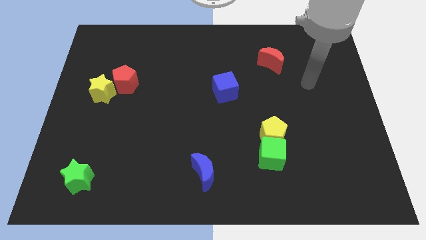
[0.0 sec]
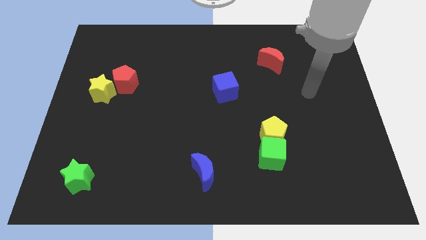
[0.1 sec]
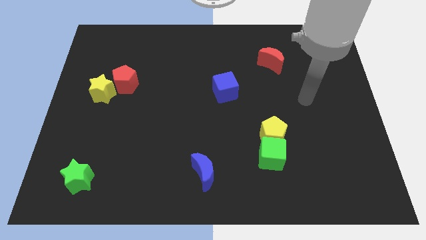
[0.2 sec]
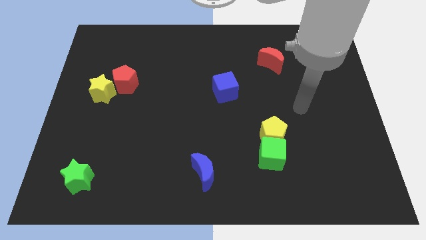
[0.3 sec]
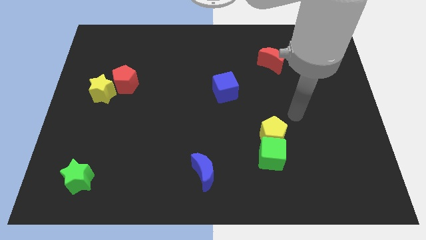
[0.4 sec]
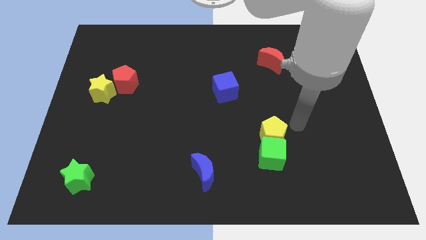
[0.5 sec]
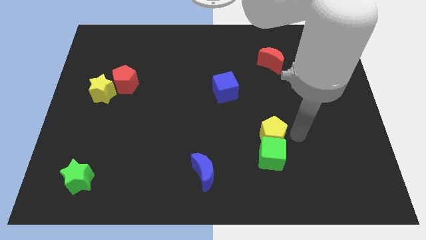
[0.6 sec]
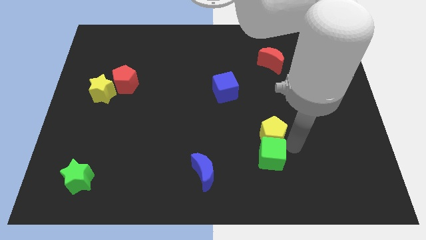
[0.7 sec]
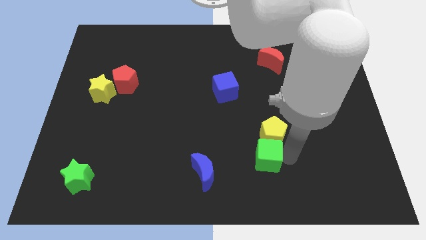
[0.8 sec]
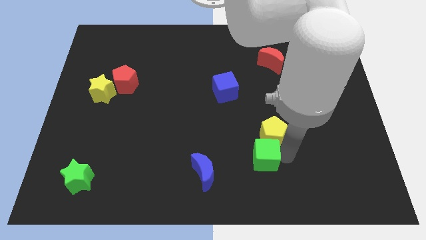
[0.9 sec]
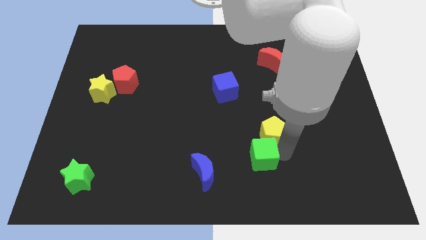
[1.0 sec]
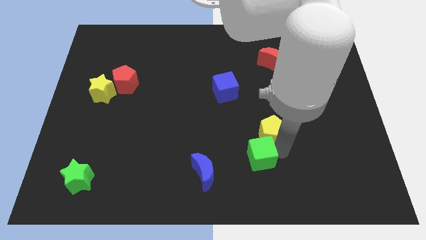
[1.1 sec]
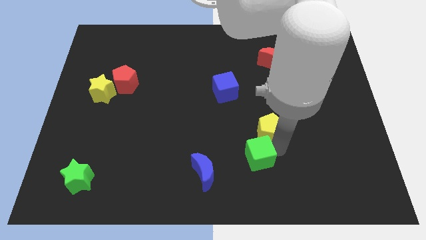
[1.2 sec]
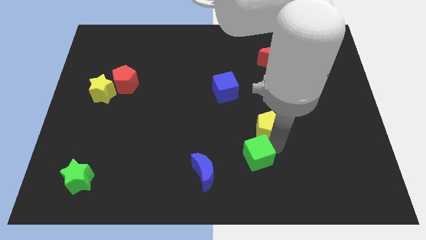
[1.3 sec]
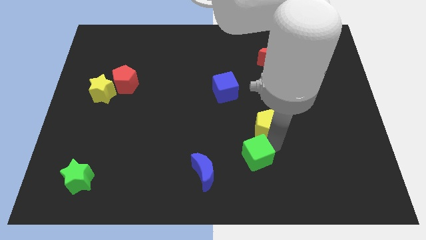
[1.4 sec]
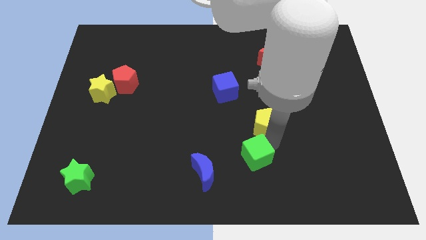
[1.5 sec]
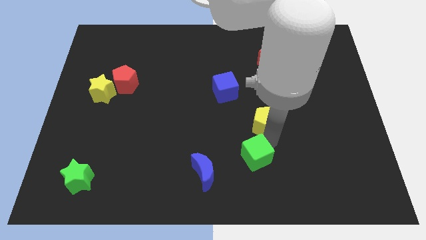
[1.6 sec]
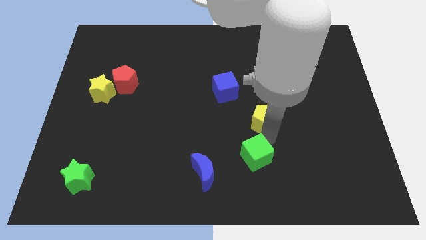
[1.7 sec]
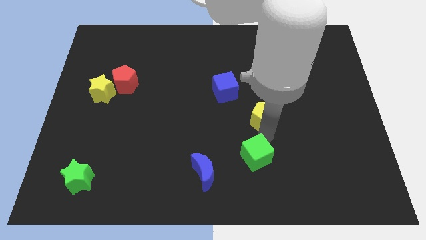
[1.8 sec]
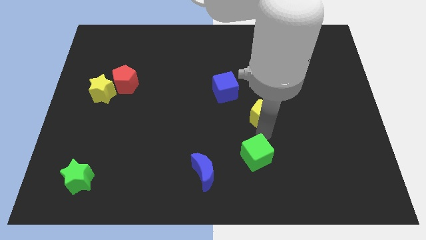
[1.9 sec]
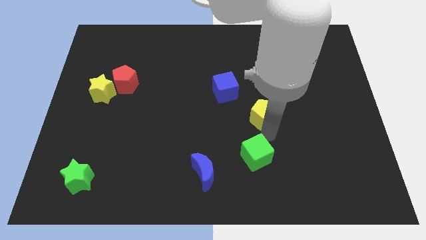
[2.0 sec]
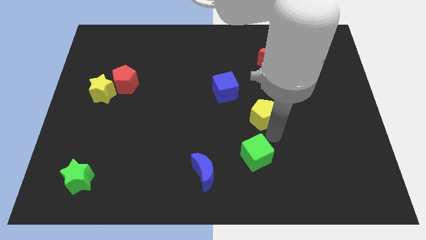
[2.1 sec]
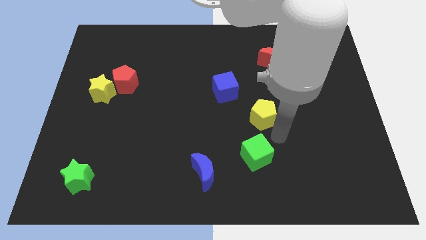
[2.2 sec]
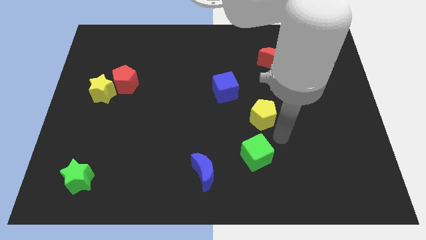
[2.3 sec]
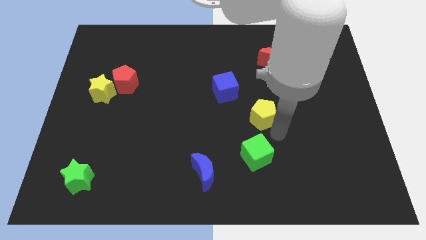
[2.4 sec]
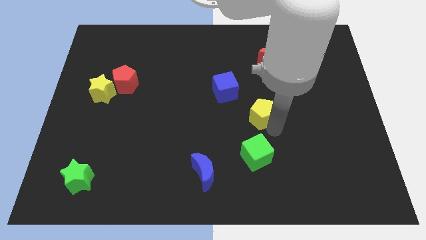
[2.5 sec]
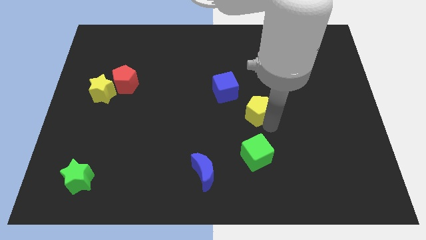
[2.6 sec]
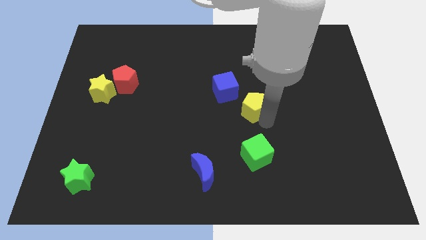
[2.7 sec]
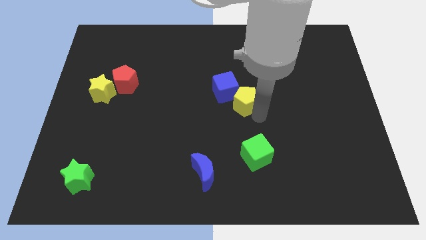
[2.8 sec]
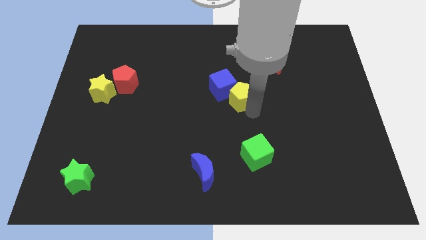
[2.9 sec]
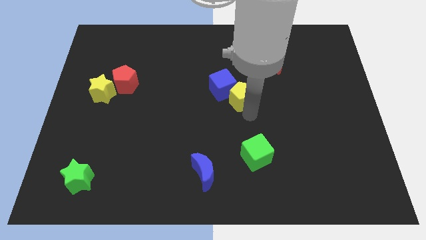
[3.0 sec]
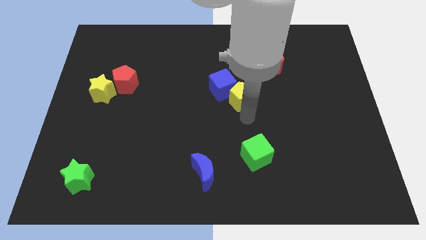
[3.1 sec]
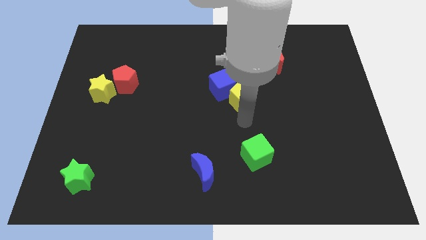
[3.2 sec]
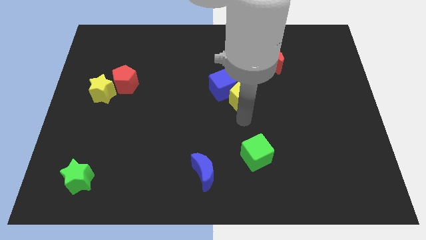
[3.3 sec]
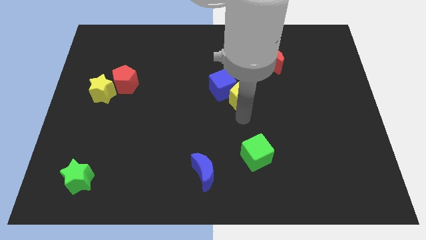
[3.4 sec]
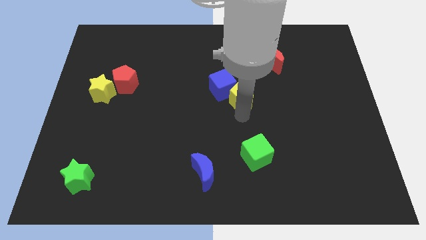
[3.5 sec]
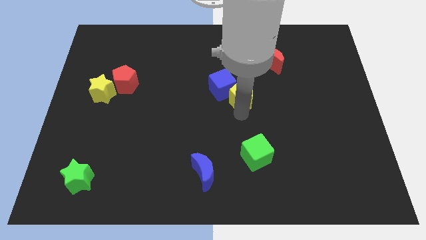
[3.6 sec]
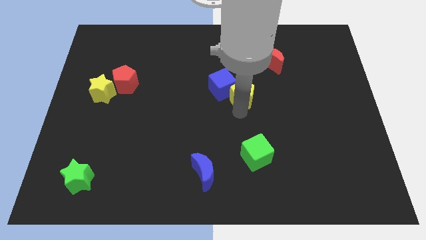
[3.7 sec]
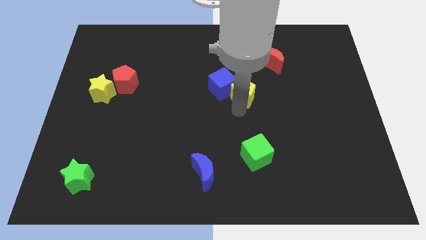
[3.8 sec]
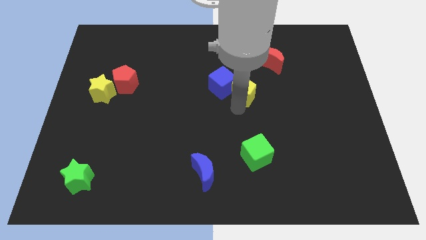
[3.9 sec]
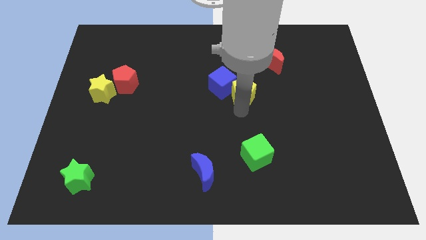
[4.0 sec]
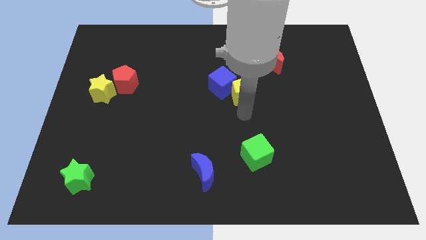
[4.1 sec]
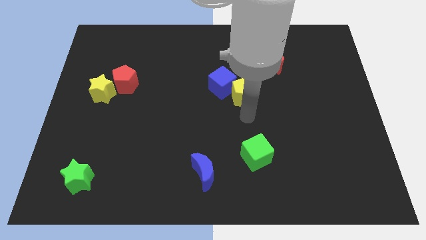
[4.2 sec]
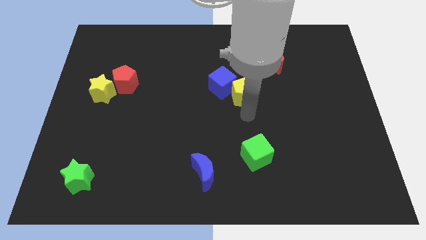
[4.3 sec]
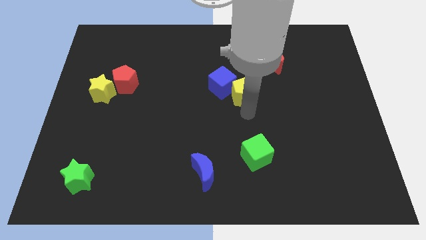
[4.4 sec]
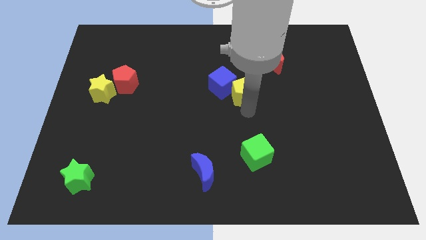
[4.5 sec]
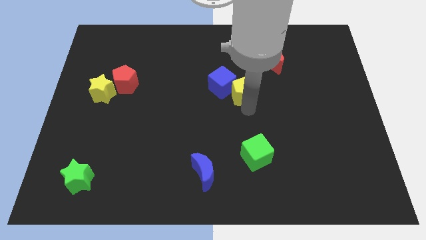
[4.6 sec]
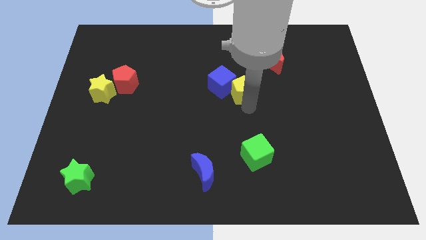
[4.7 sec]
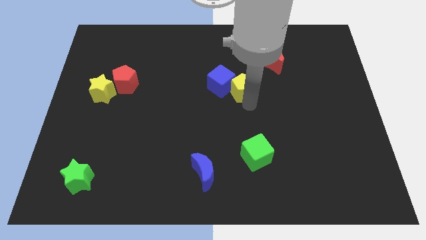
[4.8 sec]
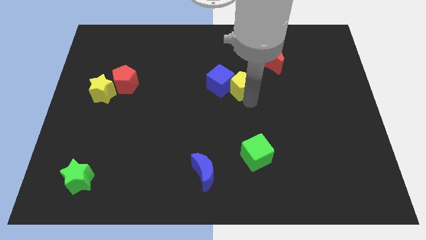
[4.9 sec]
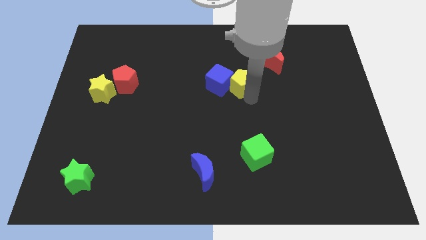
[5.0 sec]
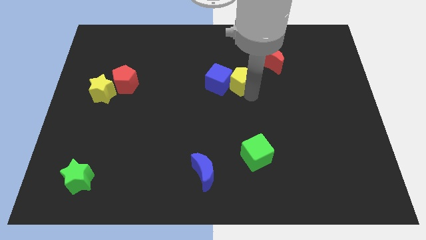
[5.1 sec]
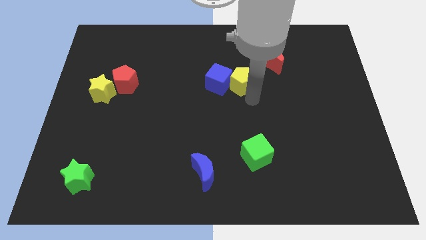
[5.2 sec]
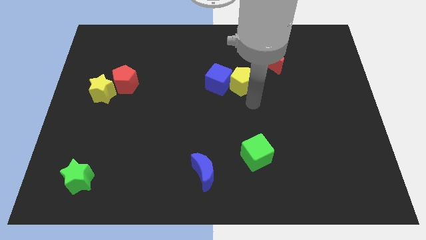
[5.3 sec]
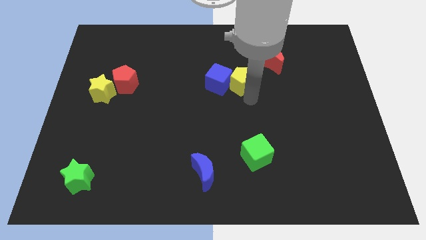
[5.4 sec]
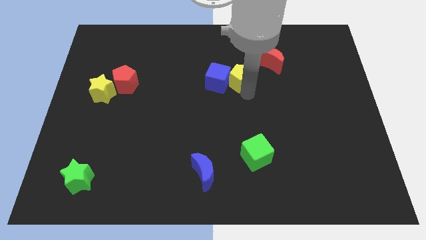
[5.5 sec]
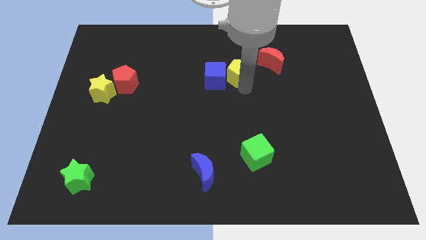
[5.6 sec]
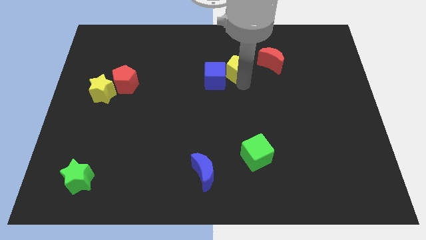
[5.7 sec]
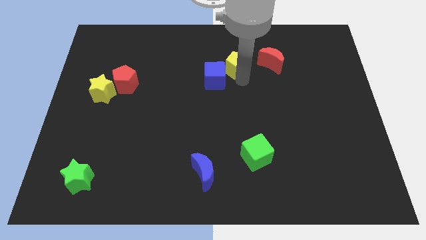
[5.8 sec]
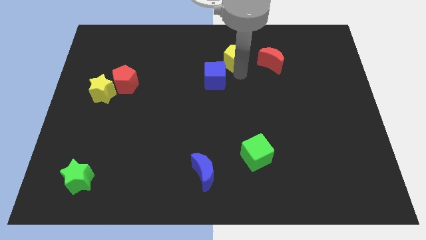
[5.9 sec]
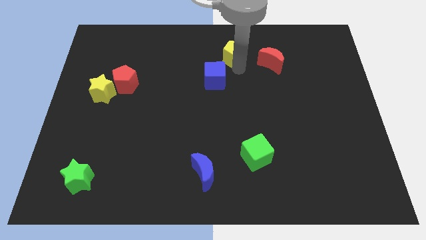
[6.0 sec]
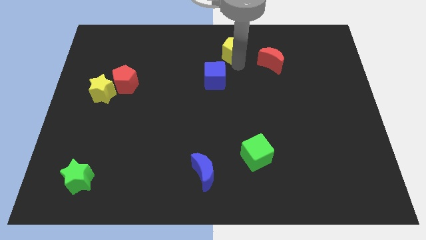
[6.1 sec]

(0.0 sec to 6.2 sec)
push the yellow pentagon to the top side

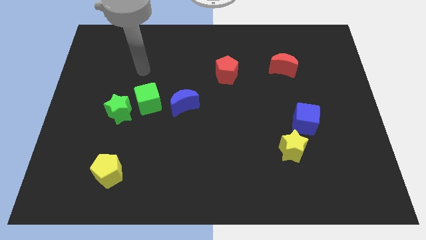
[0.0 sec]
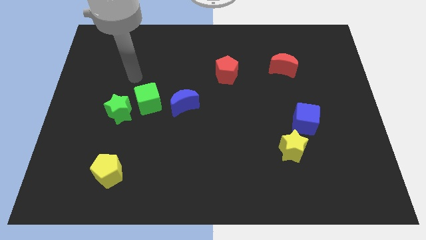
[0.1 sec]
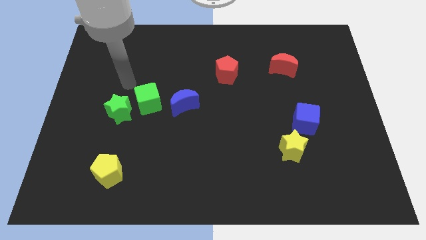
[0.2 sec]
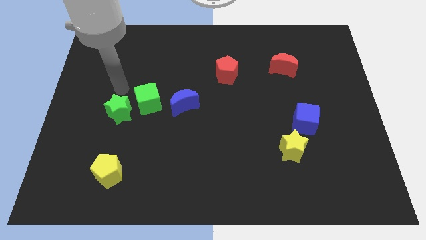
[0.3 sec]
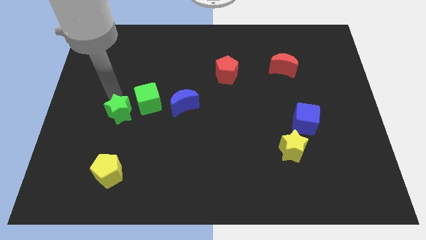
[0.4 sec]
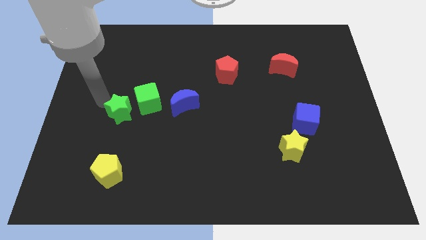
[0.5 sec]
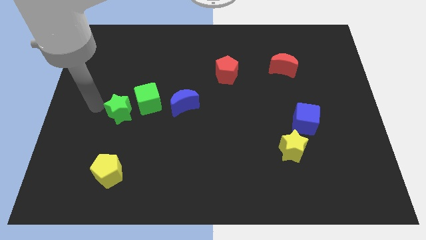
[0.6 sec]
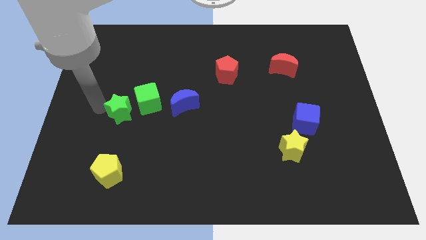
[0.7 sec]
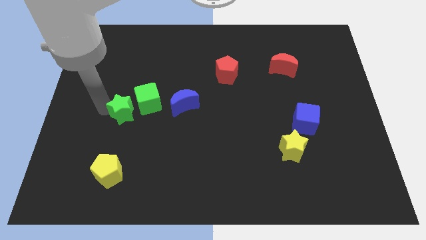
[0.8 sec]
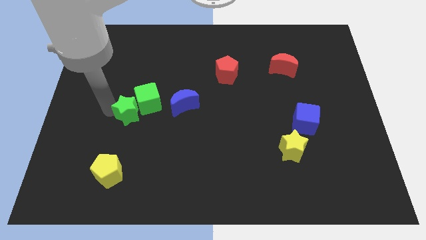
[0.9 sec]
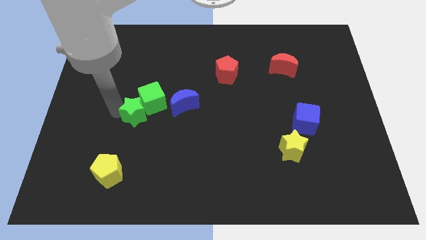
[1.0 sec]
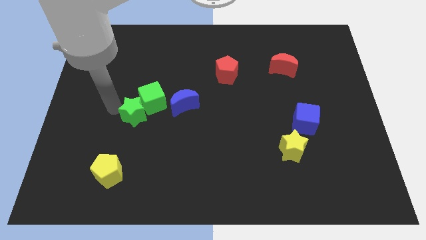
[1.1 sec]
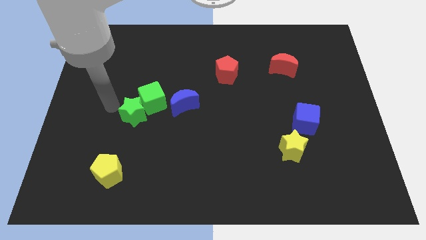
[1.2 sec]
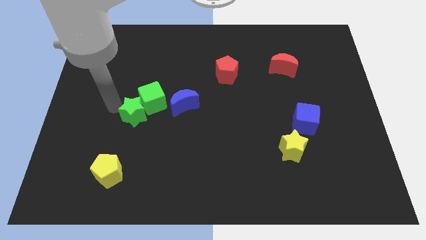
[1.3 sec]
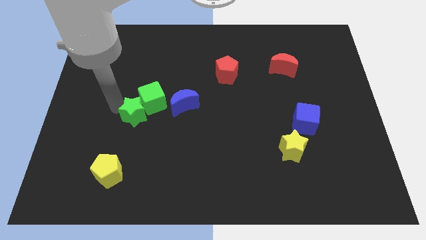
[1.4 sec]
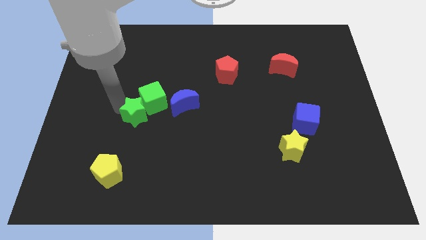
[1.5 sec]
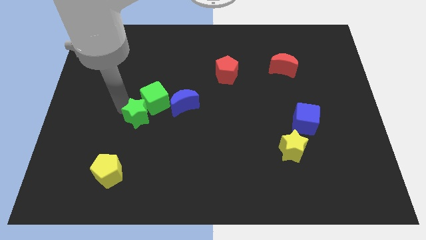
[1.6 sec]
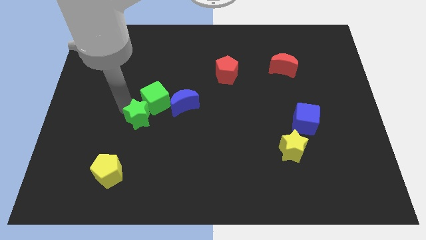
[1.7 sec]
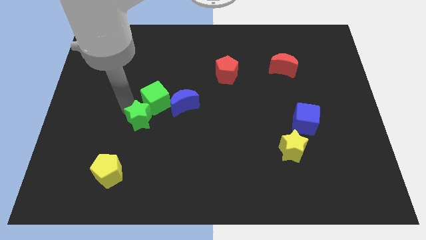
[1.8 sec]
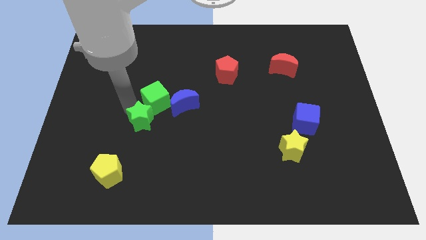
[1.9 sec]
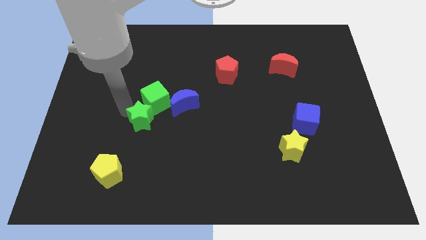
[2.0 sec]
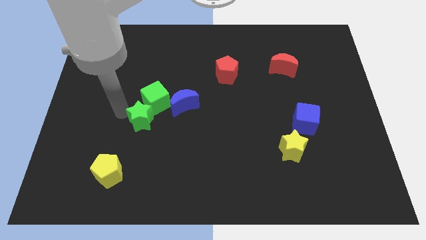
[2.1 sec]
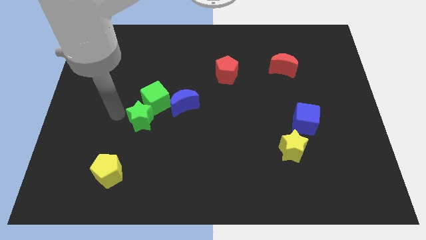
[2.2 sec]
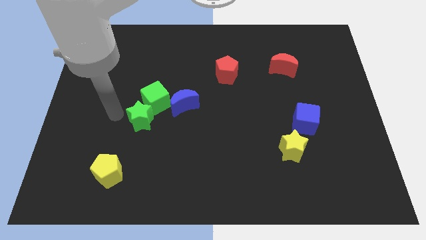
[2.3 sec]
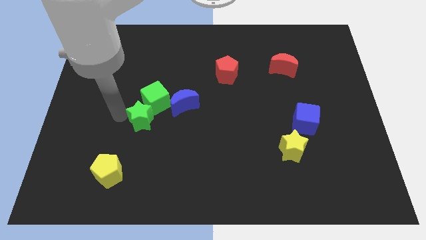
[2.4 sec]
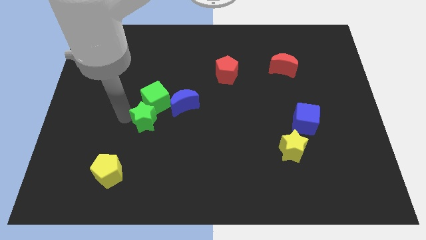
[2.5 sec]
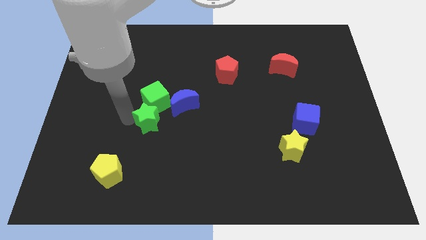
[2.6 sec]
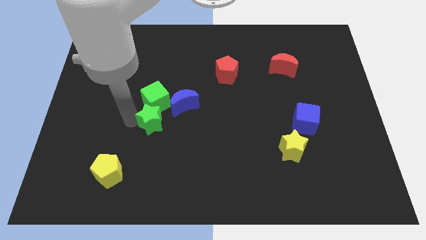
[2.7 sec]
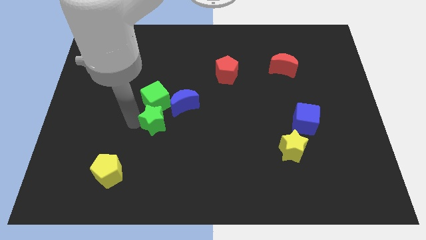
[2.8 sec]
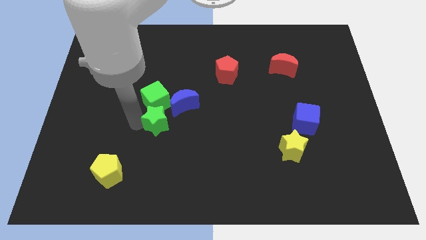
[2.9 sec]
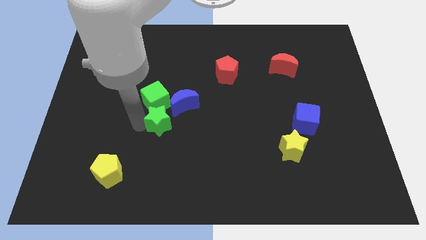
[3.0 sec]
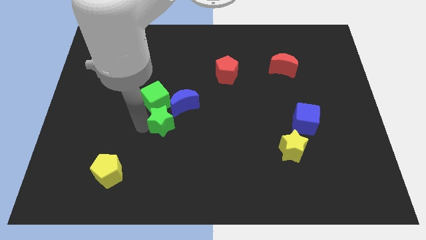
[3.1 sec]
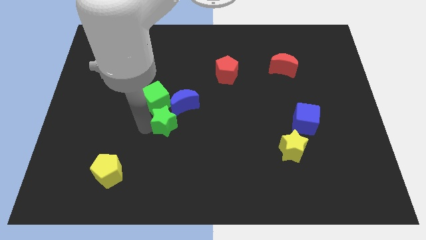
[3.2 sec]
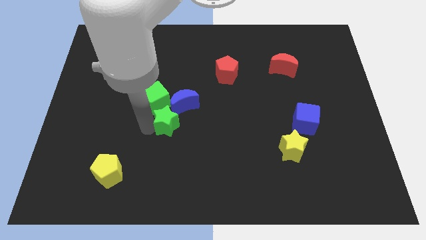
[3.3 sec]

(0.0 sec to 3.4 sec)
slide the green star to the middle of the board
